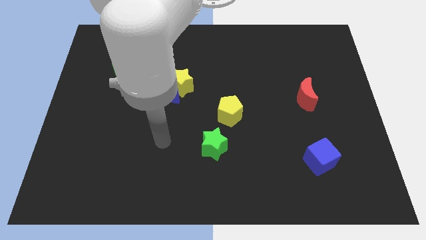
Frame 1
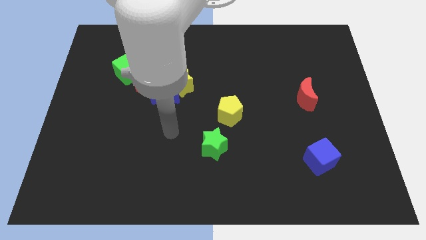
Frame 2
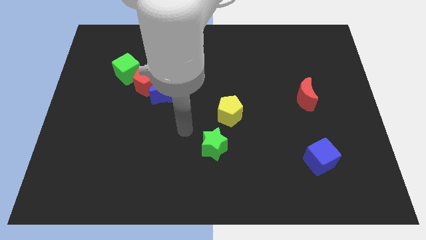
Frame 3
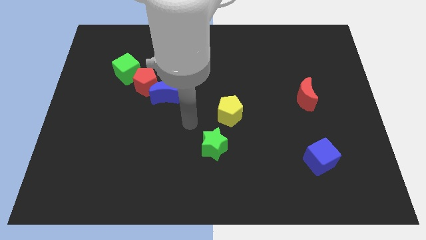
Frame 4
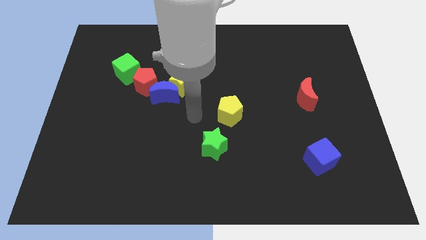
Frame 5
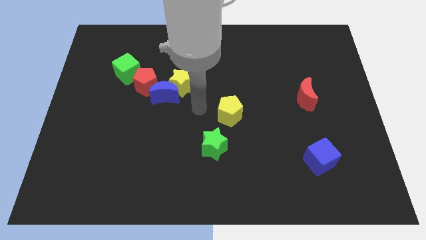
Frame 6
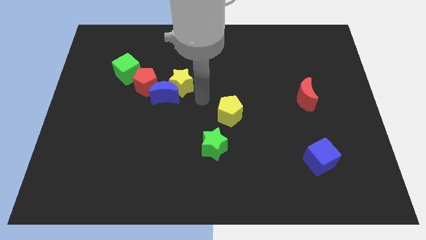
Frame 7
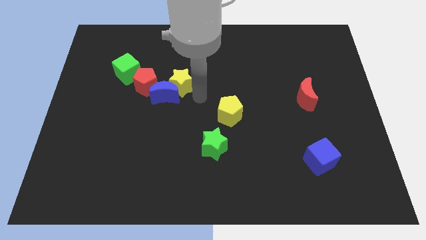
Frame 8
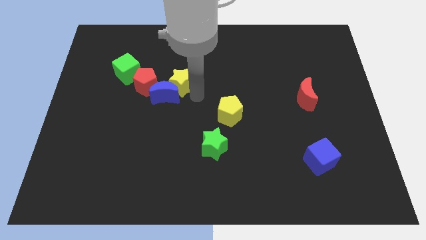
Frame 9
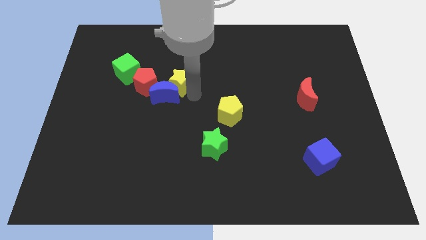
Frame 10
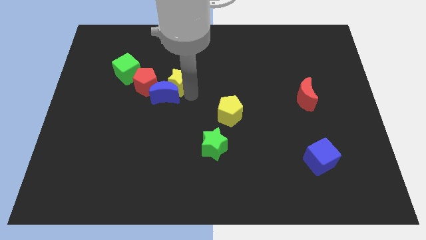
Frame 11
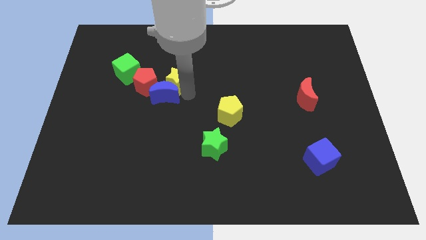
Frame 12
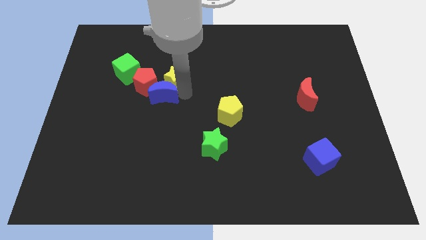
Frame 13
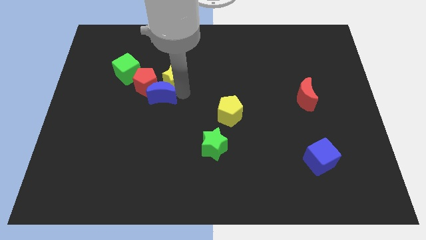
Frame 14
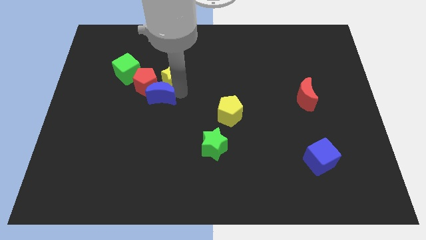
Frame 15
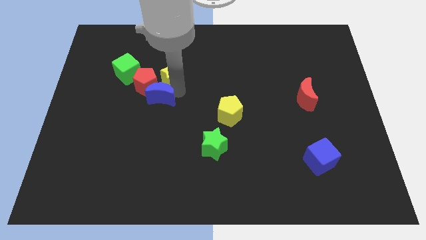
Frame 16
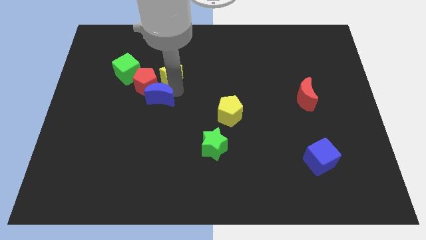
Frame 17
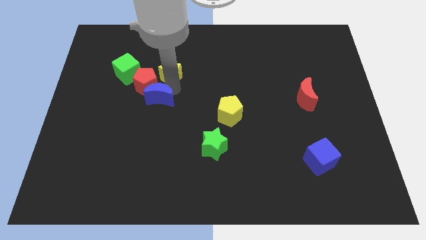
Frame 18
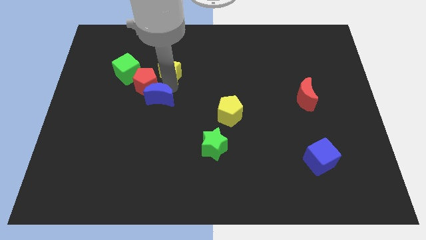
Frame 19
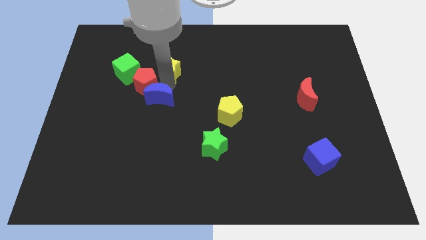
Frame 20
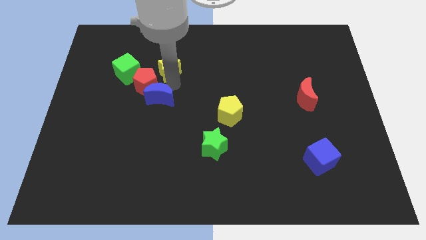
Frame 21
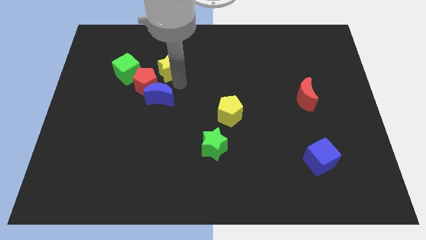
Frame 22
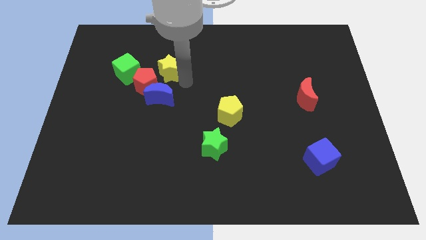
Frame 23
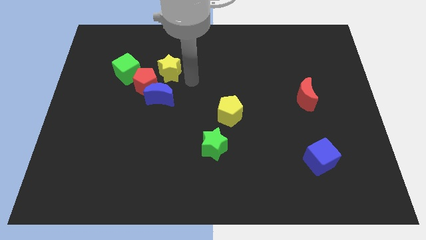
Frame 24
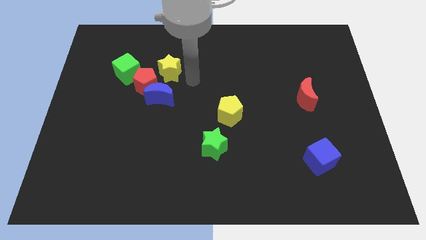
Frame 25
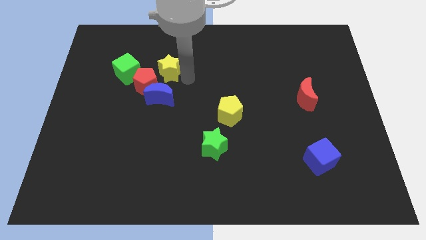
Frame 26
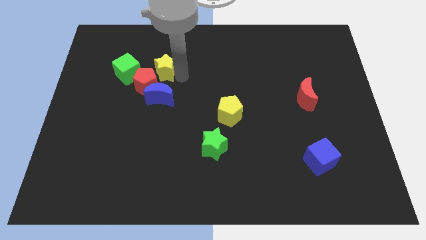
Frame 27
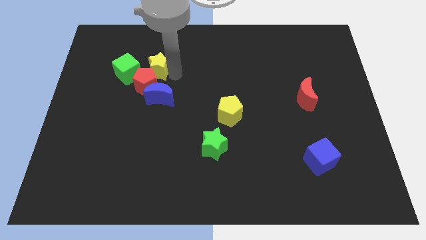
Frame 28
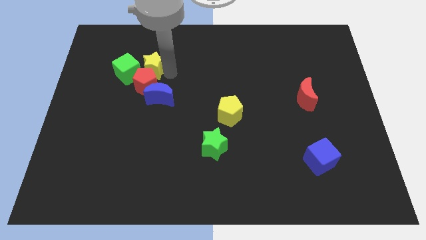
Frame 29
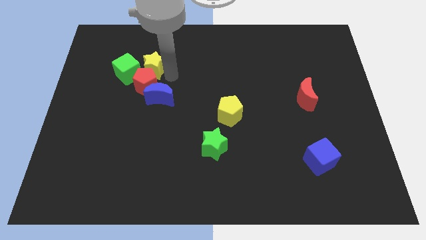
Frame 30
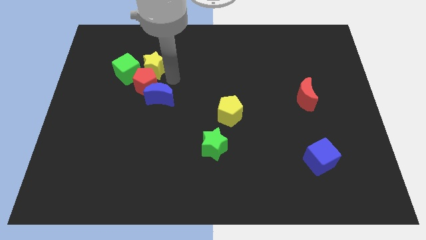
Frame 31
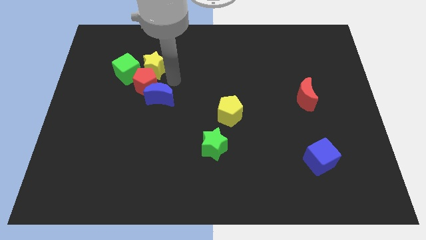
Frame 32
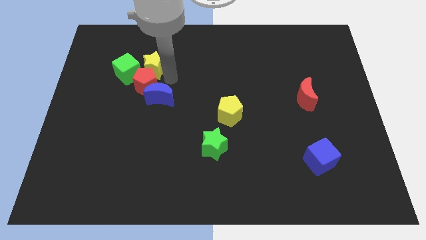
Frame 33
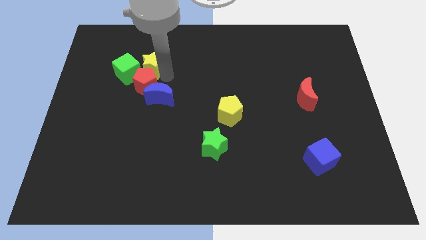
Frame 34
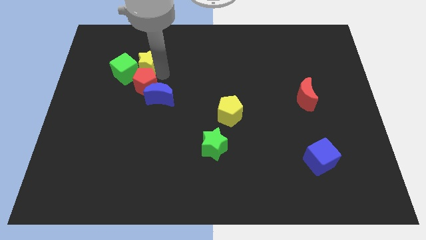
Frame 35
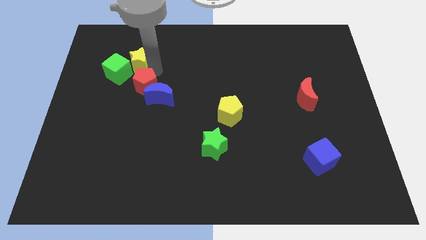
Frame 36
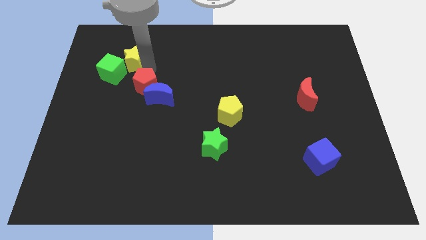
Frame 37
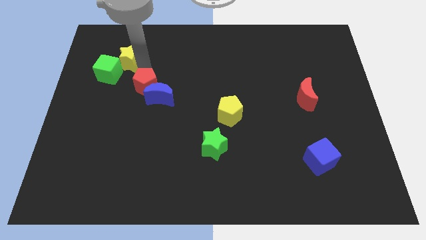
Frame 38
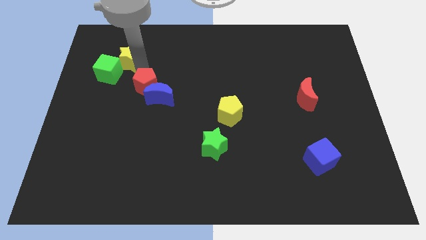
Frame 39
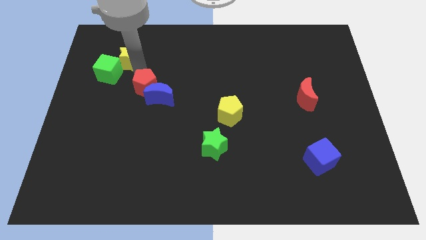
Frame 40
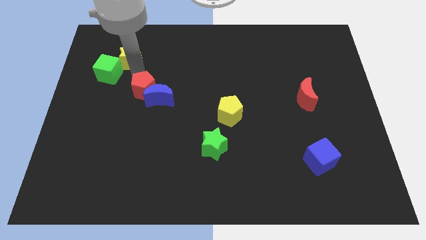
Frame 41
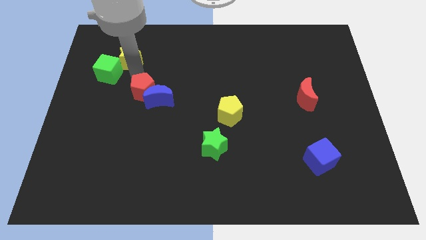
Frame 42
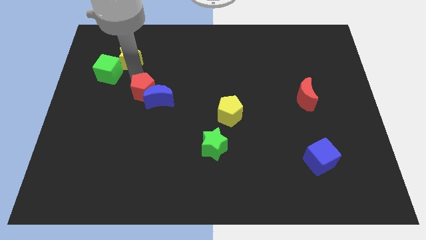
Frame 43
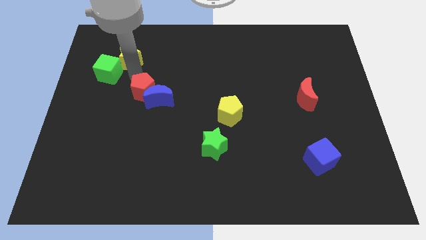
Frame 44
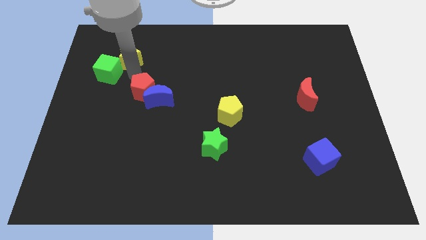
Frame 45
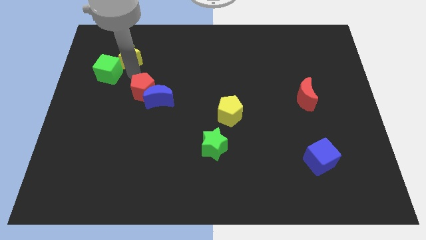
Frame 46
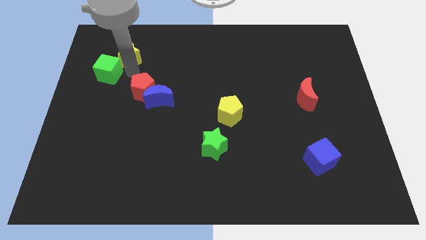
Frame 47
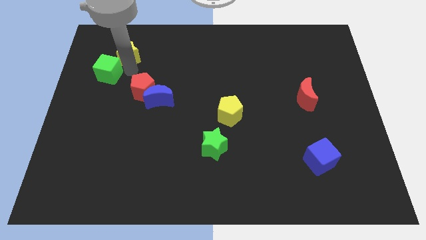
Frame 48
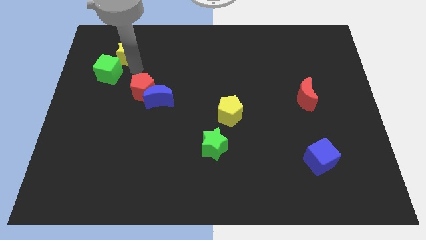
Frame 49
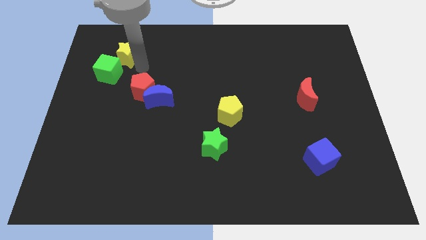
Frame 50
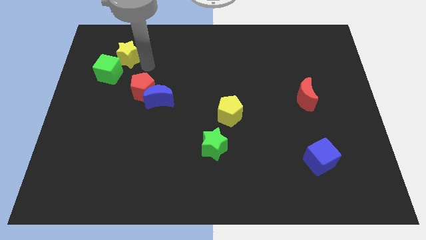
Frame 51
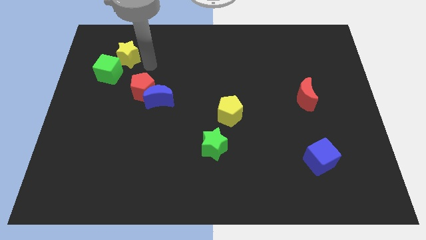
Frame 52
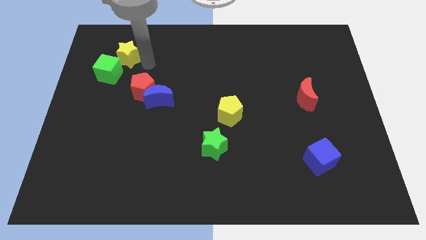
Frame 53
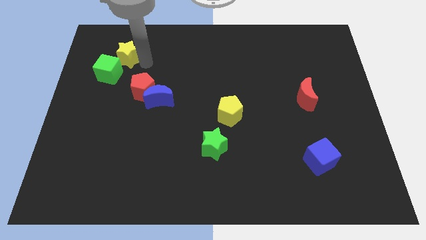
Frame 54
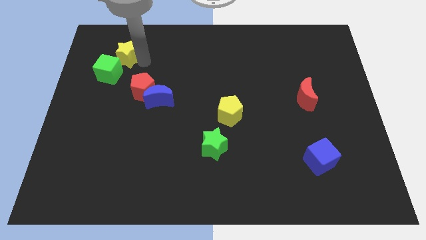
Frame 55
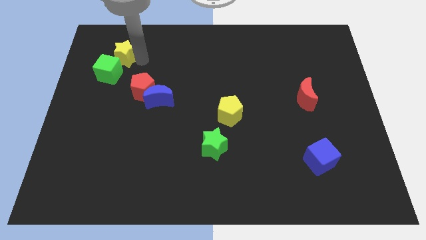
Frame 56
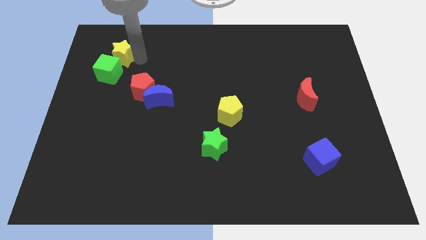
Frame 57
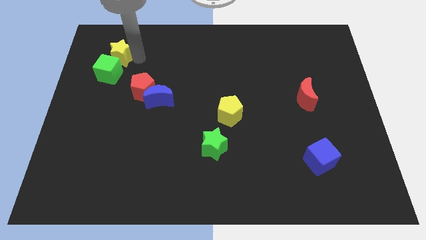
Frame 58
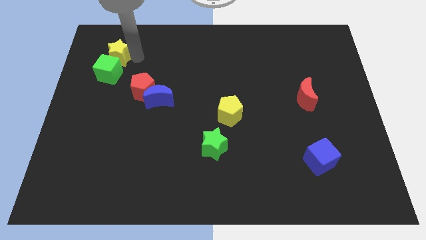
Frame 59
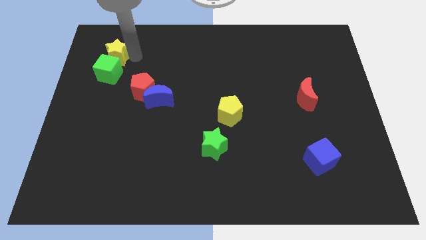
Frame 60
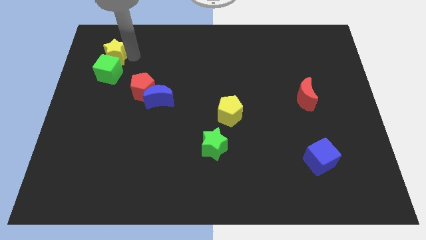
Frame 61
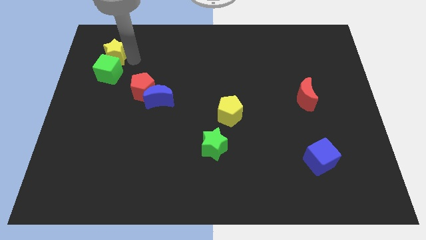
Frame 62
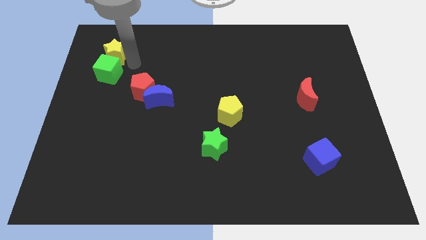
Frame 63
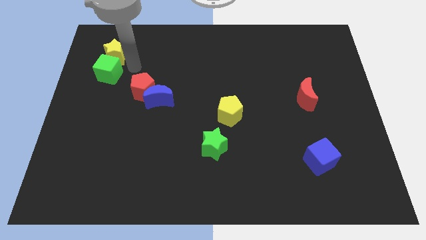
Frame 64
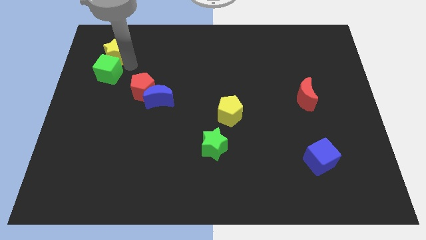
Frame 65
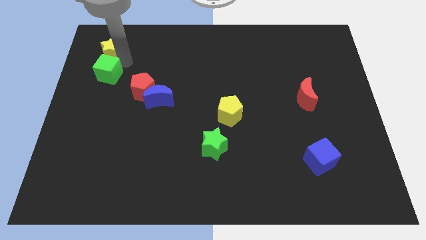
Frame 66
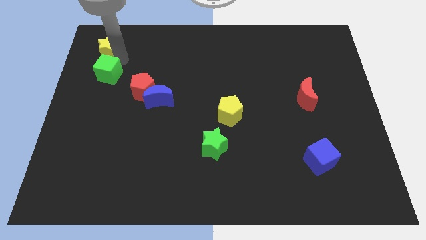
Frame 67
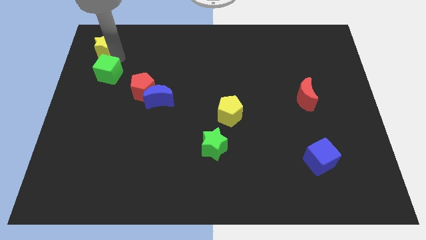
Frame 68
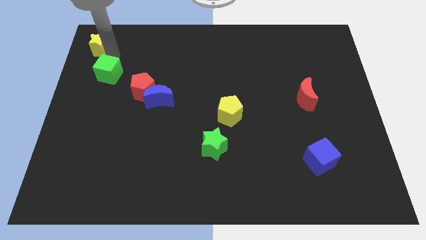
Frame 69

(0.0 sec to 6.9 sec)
move the yellow star to the top left of the board
